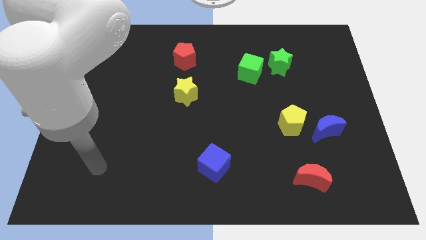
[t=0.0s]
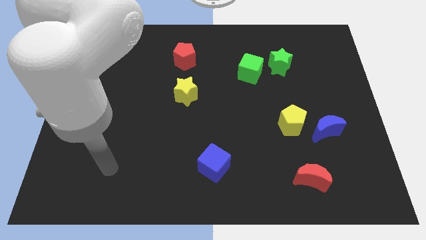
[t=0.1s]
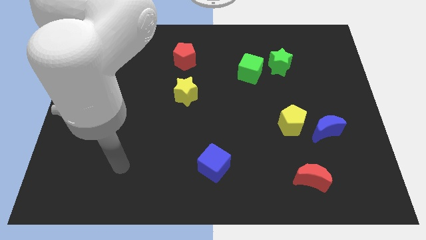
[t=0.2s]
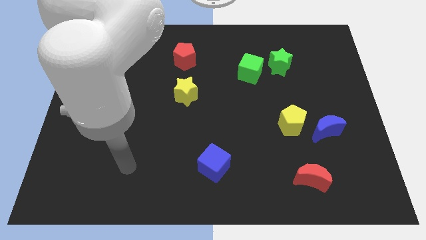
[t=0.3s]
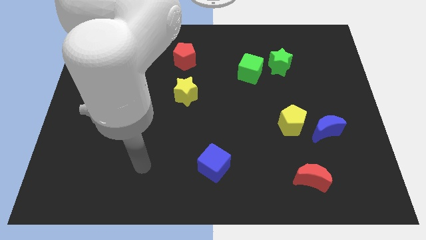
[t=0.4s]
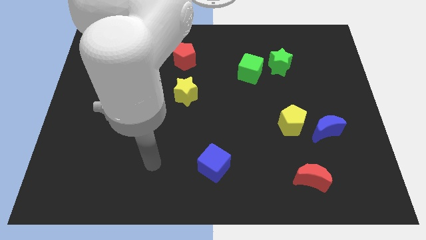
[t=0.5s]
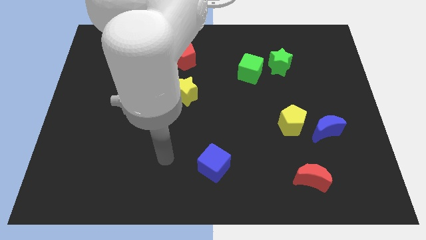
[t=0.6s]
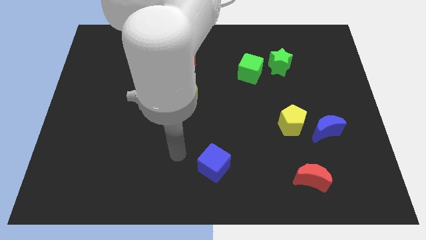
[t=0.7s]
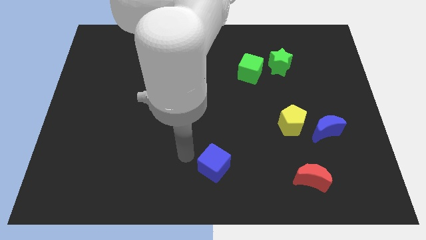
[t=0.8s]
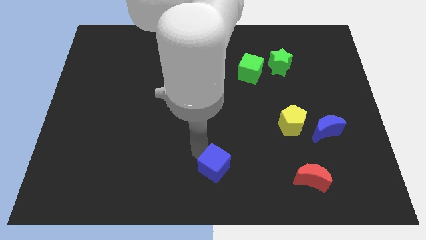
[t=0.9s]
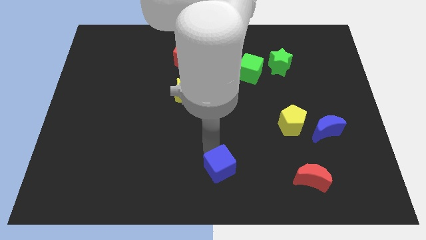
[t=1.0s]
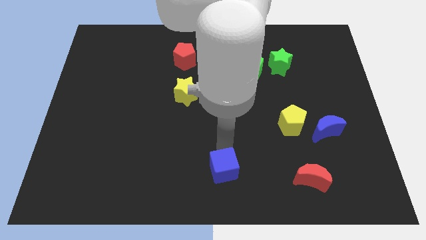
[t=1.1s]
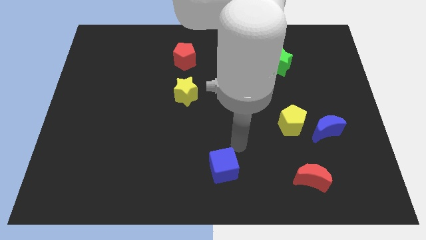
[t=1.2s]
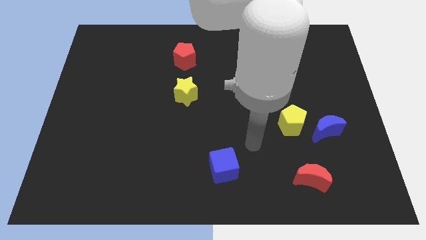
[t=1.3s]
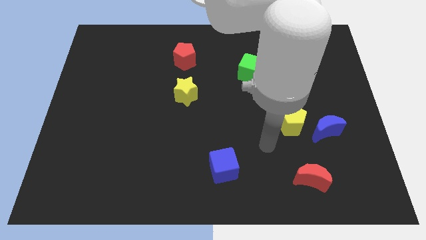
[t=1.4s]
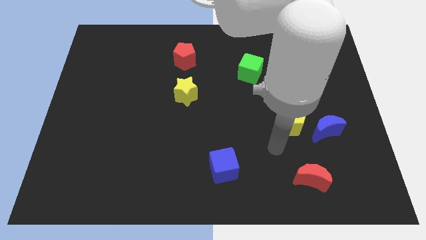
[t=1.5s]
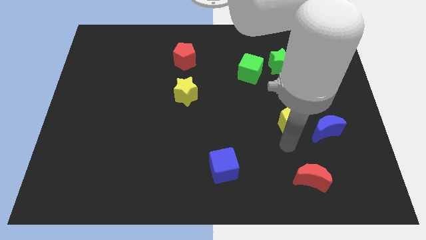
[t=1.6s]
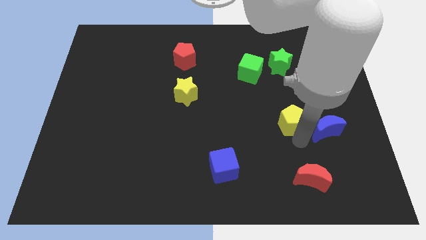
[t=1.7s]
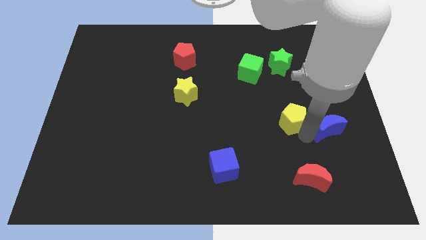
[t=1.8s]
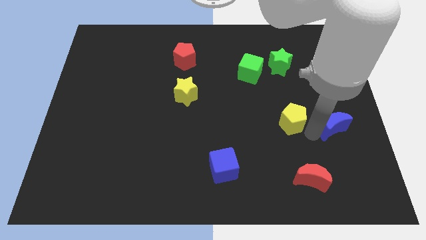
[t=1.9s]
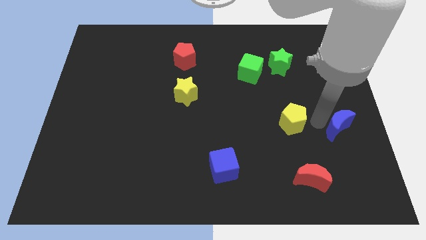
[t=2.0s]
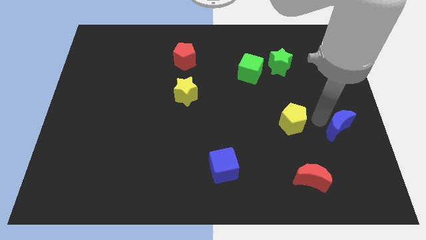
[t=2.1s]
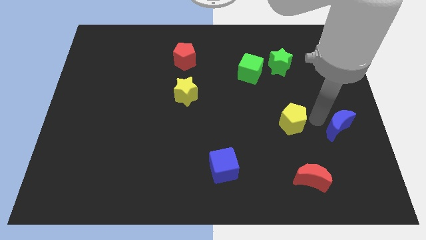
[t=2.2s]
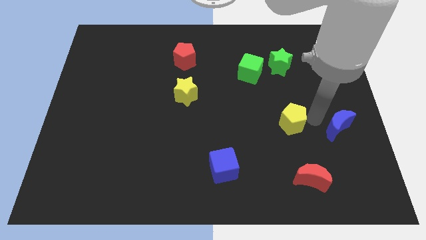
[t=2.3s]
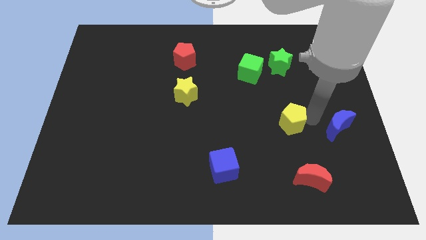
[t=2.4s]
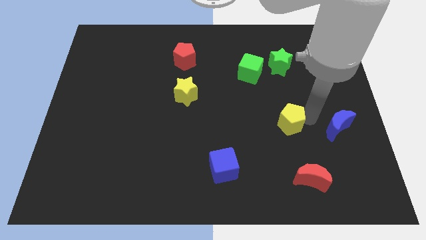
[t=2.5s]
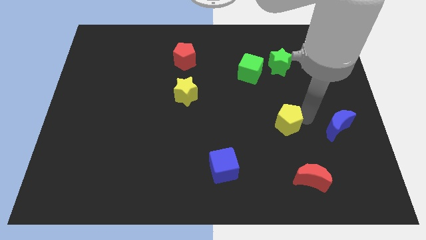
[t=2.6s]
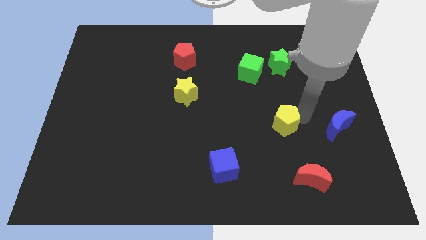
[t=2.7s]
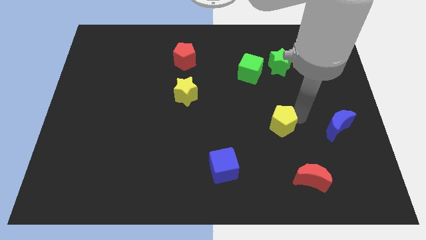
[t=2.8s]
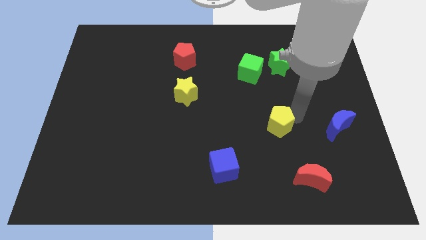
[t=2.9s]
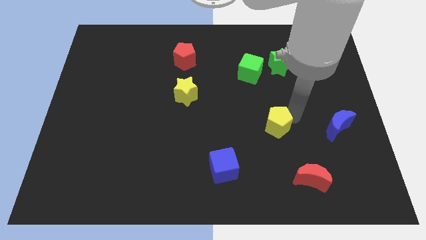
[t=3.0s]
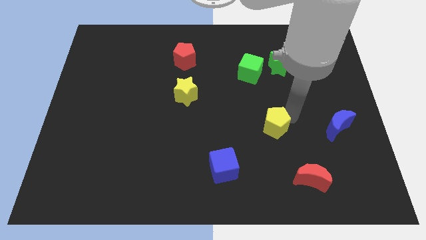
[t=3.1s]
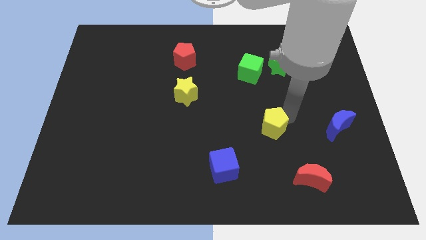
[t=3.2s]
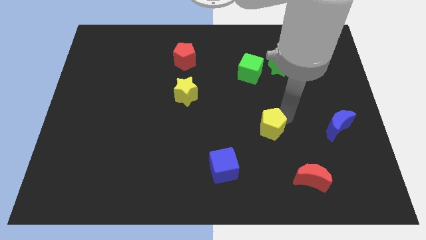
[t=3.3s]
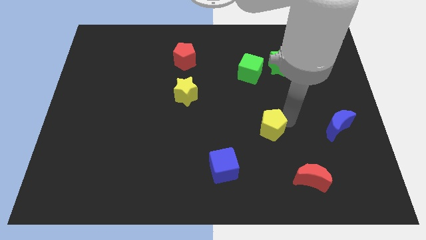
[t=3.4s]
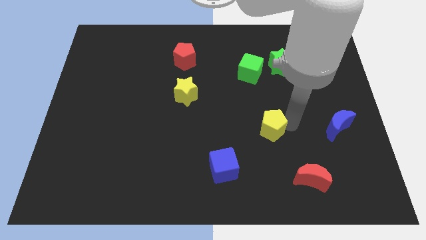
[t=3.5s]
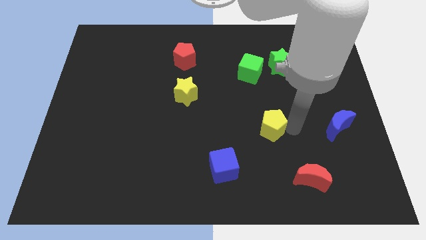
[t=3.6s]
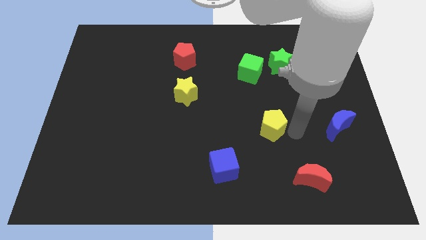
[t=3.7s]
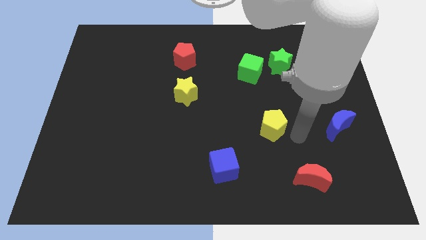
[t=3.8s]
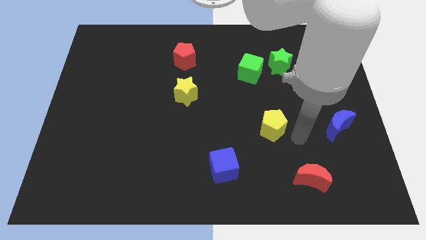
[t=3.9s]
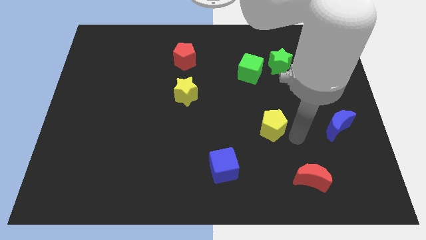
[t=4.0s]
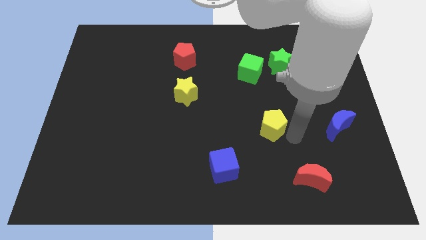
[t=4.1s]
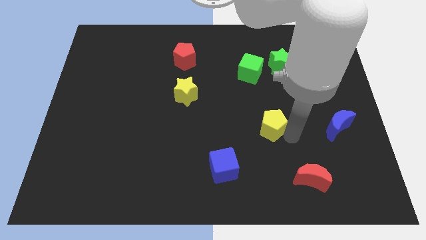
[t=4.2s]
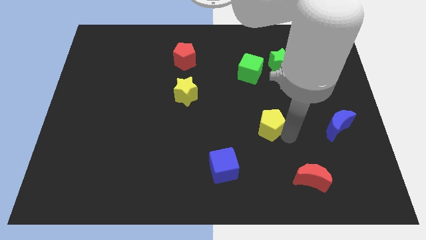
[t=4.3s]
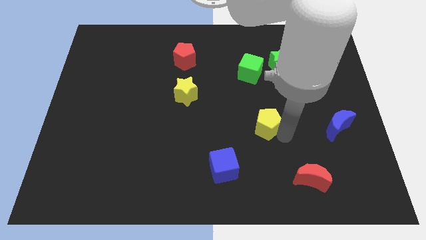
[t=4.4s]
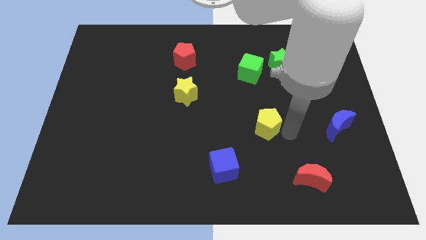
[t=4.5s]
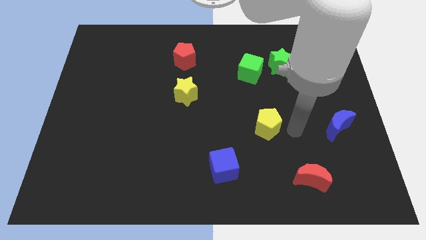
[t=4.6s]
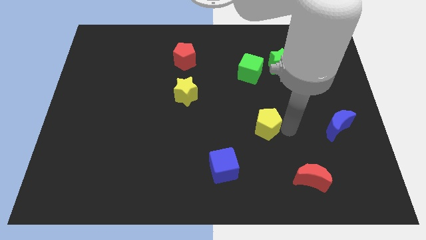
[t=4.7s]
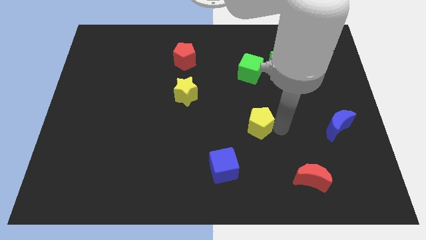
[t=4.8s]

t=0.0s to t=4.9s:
slightly push the yellow pentagon to the left

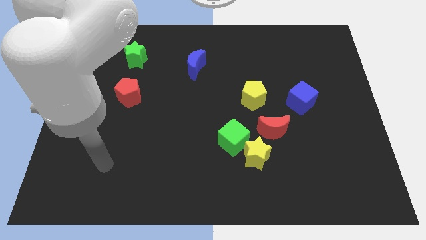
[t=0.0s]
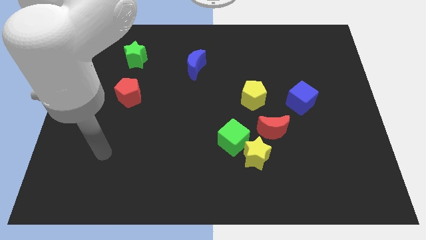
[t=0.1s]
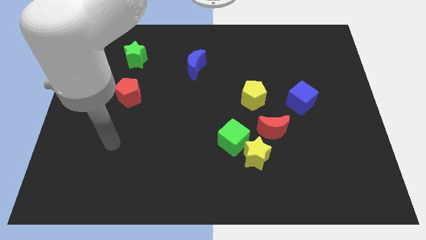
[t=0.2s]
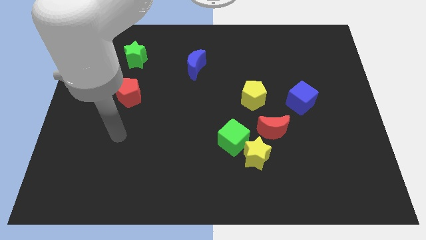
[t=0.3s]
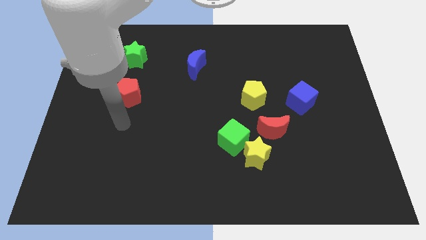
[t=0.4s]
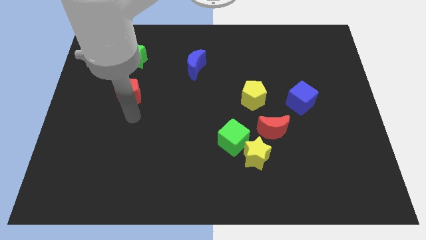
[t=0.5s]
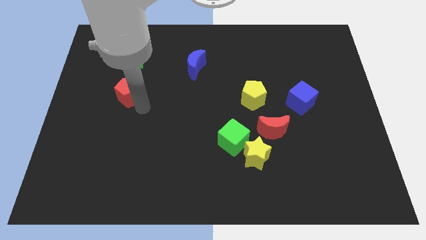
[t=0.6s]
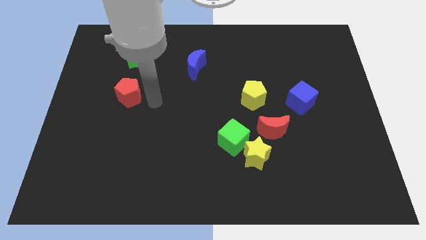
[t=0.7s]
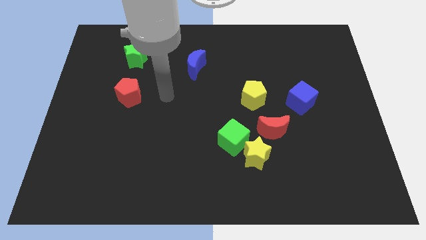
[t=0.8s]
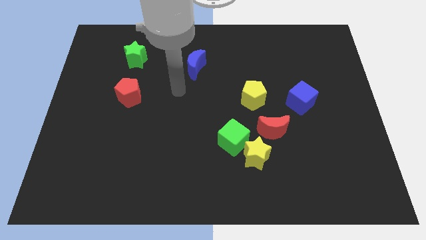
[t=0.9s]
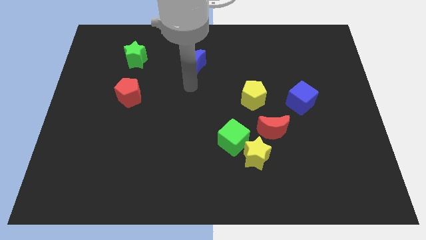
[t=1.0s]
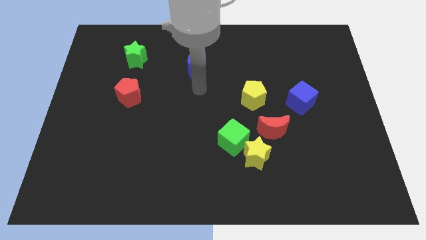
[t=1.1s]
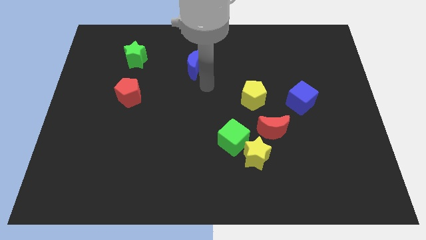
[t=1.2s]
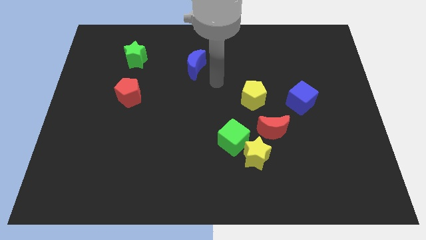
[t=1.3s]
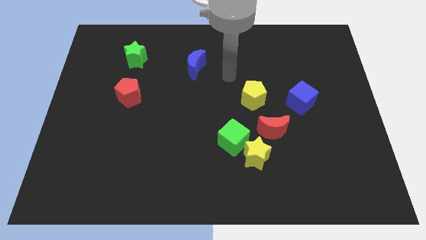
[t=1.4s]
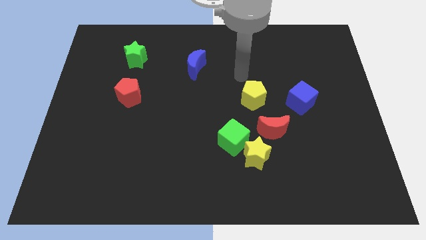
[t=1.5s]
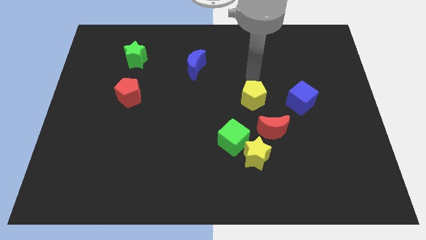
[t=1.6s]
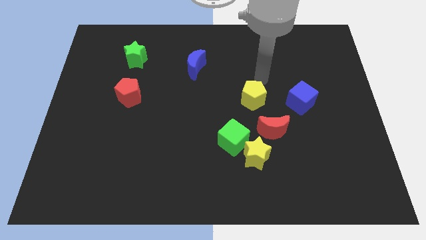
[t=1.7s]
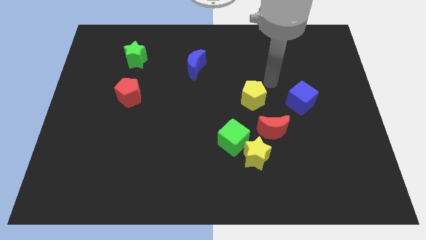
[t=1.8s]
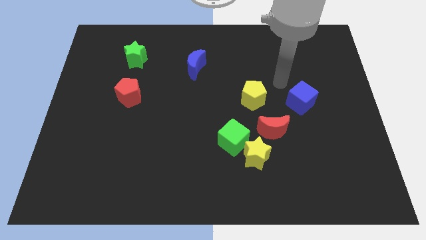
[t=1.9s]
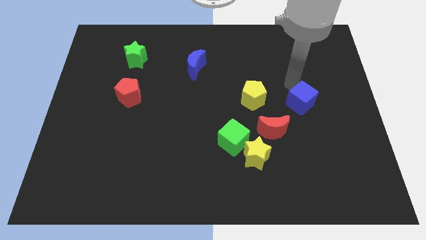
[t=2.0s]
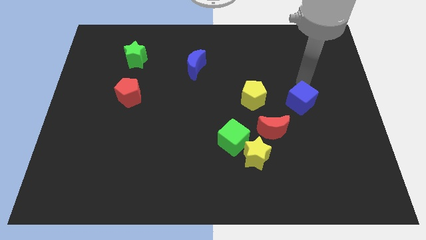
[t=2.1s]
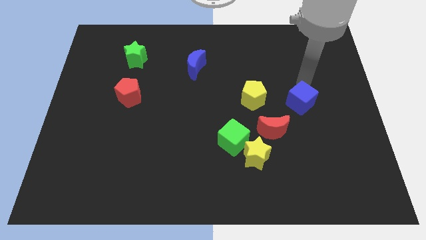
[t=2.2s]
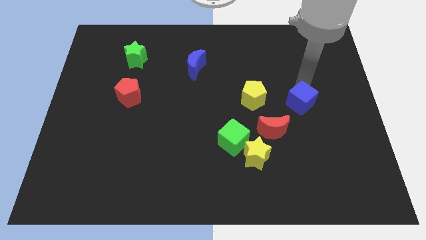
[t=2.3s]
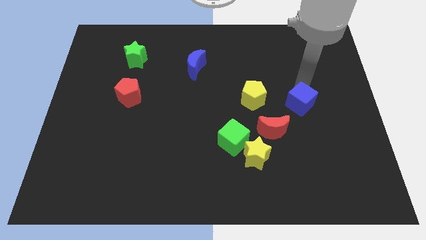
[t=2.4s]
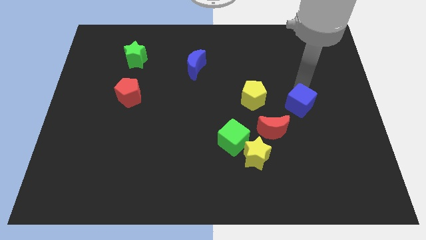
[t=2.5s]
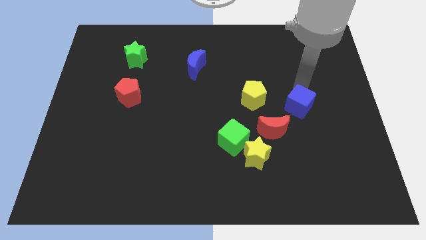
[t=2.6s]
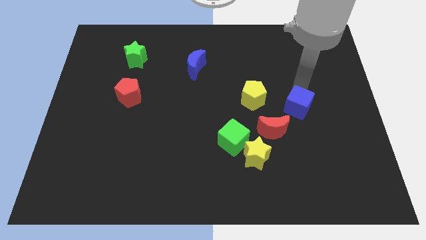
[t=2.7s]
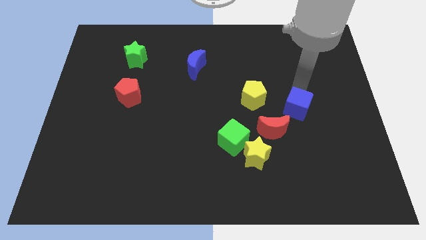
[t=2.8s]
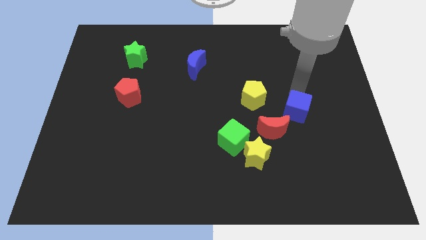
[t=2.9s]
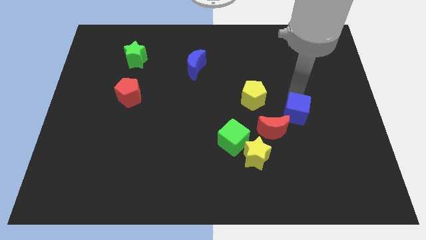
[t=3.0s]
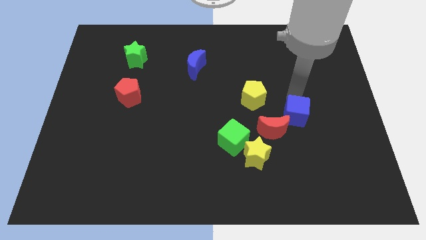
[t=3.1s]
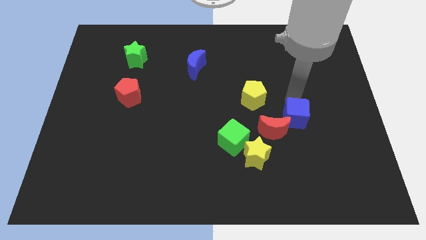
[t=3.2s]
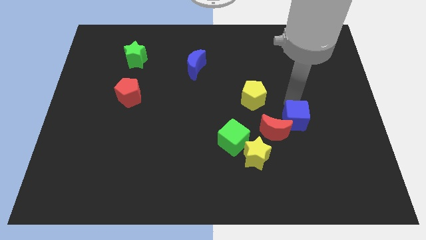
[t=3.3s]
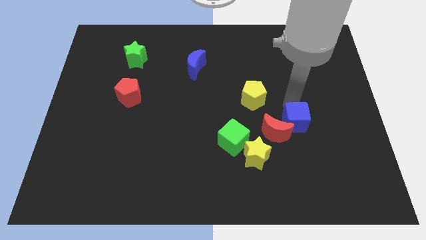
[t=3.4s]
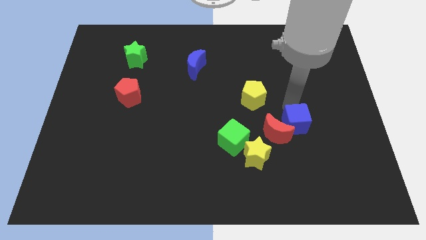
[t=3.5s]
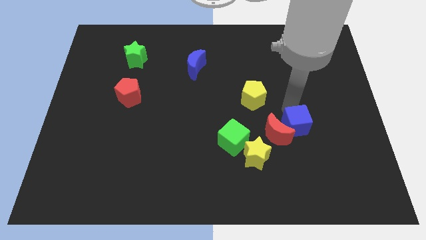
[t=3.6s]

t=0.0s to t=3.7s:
slide the blue cube a little down
